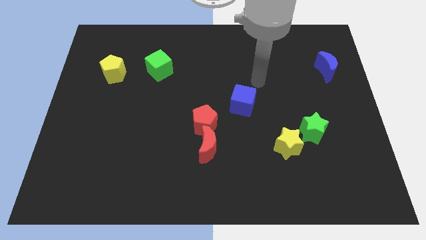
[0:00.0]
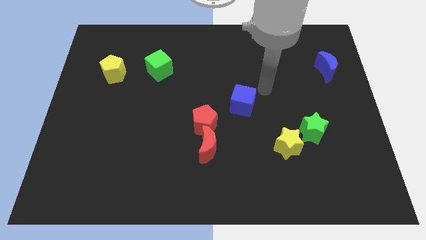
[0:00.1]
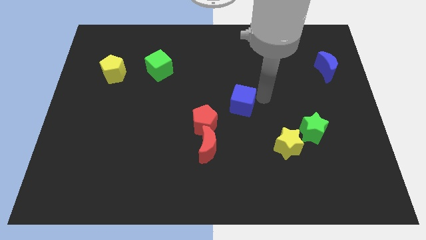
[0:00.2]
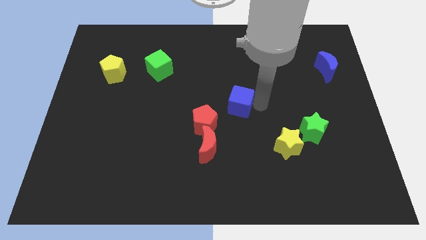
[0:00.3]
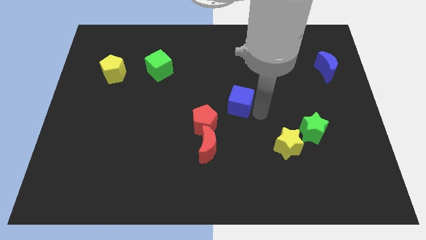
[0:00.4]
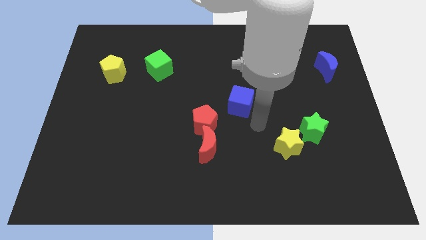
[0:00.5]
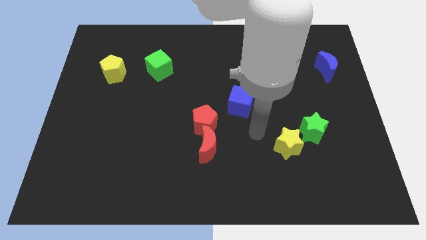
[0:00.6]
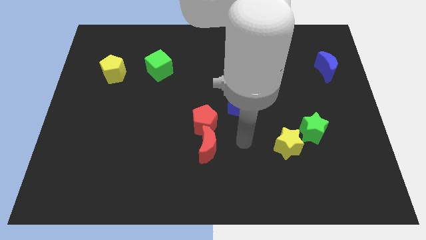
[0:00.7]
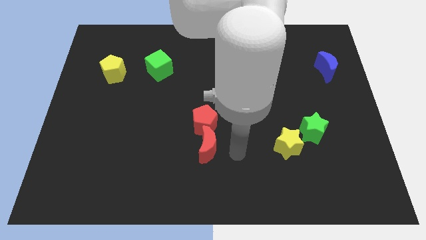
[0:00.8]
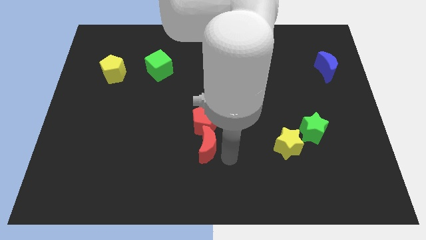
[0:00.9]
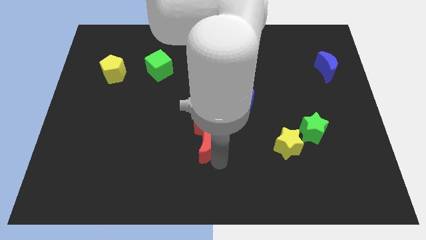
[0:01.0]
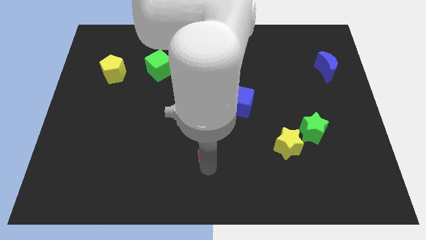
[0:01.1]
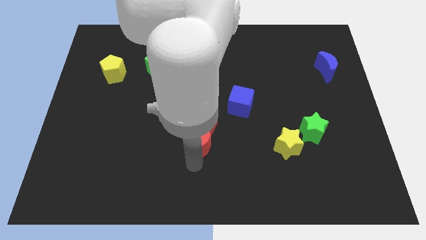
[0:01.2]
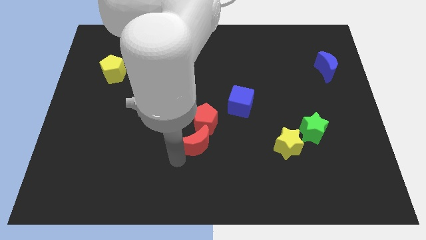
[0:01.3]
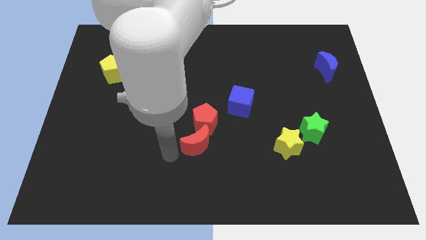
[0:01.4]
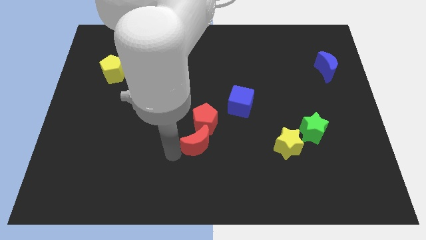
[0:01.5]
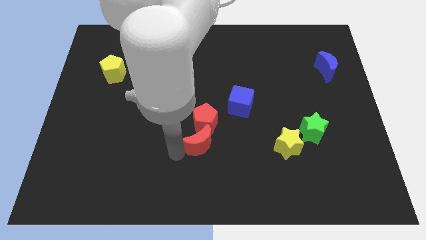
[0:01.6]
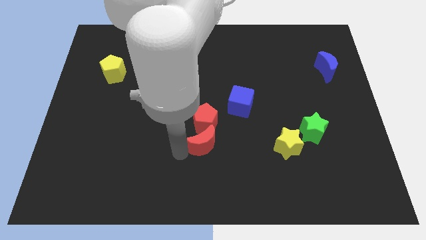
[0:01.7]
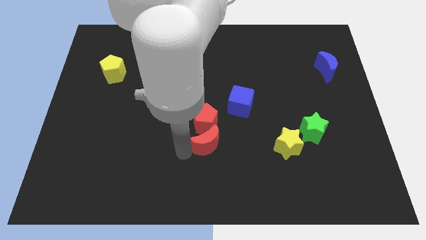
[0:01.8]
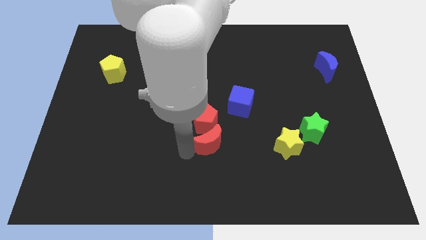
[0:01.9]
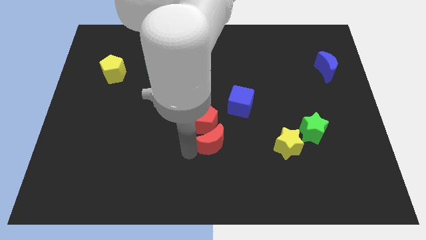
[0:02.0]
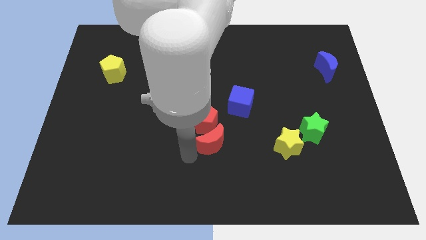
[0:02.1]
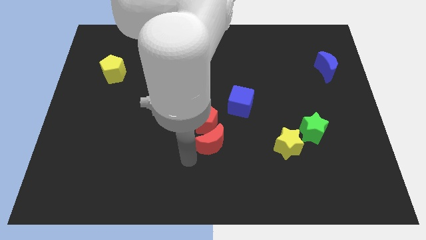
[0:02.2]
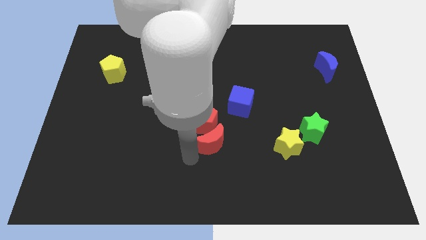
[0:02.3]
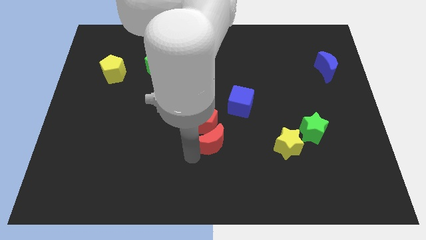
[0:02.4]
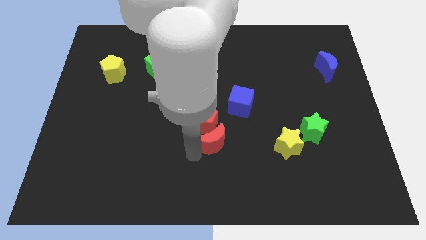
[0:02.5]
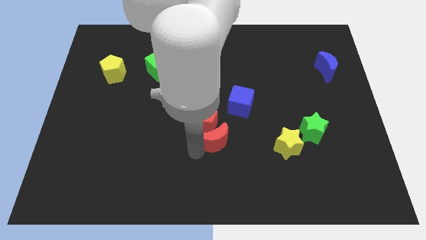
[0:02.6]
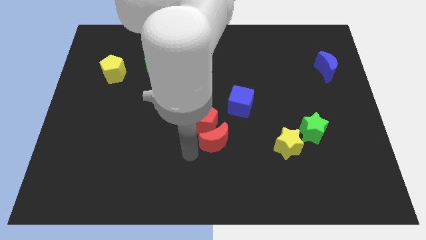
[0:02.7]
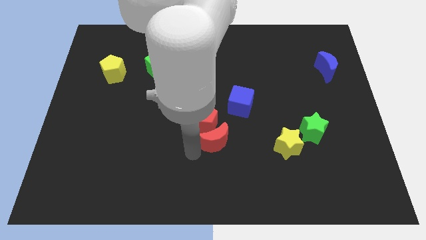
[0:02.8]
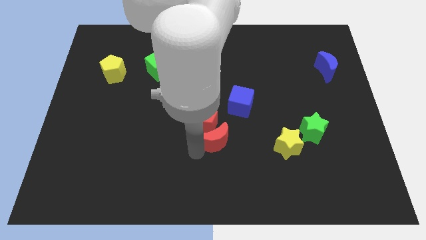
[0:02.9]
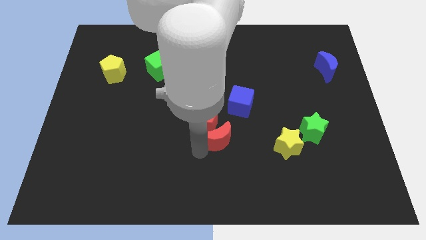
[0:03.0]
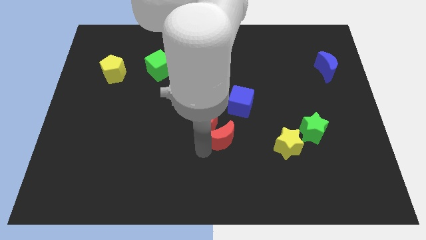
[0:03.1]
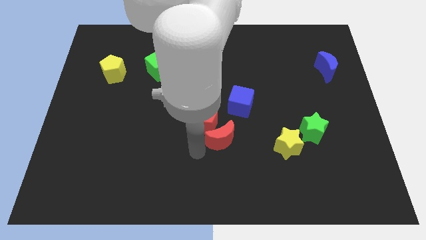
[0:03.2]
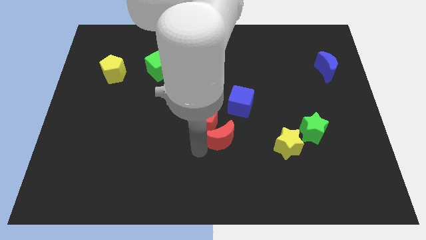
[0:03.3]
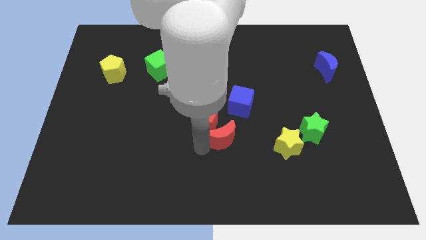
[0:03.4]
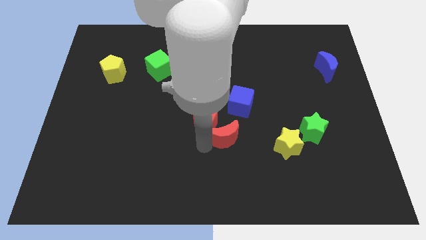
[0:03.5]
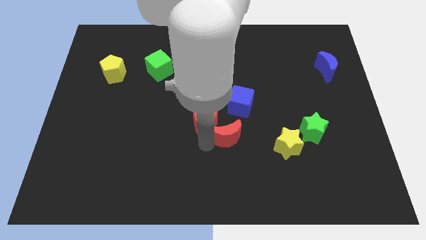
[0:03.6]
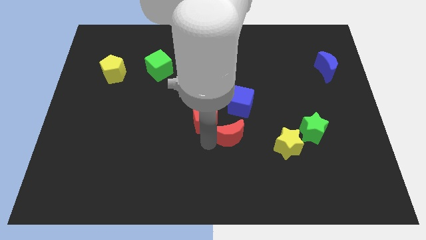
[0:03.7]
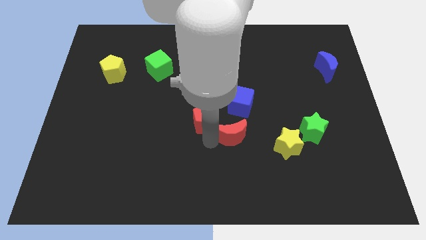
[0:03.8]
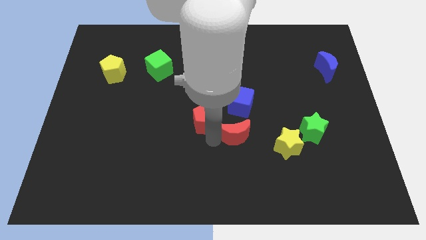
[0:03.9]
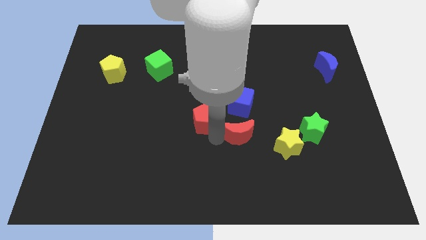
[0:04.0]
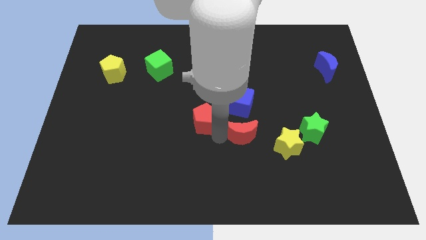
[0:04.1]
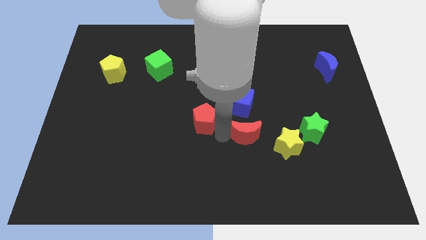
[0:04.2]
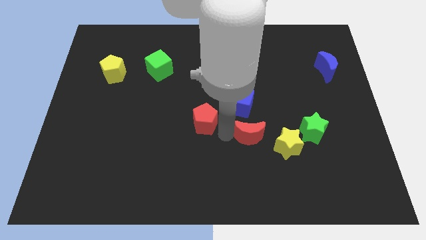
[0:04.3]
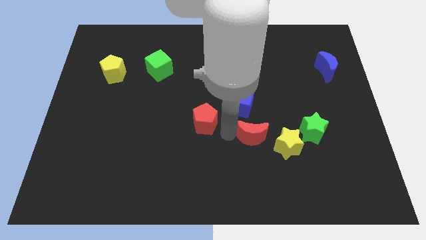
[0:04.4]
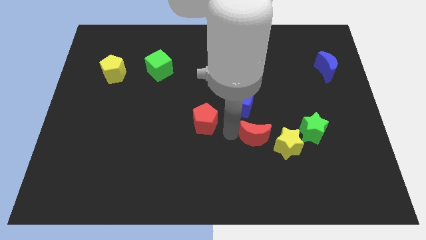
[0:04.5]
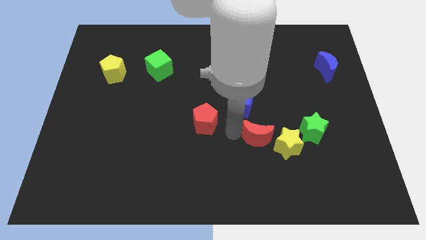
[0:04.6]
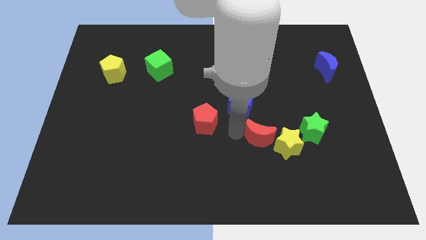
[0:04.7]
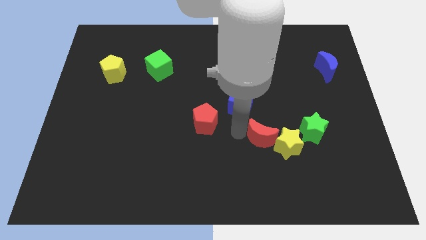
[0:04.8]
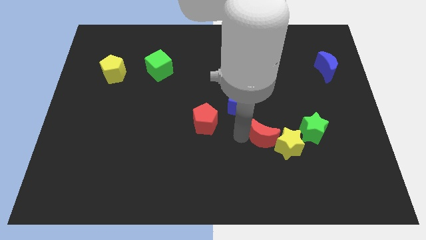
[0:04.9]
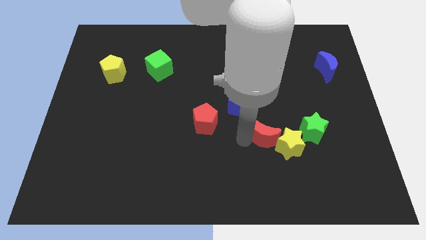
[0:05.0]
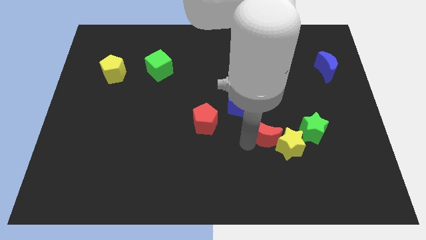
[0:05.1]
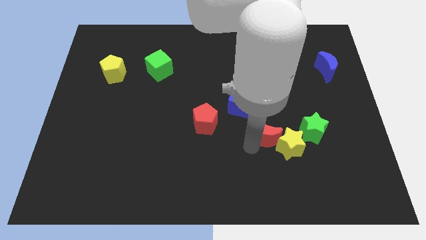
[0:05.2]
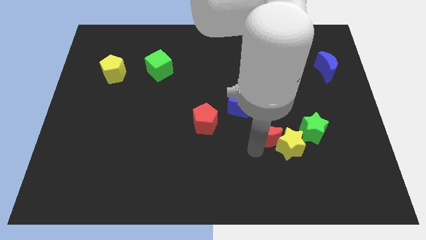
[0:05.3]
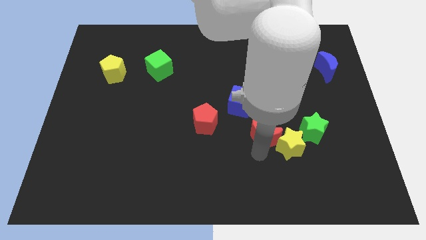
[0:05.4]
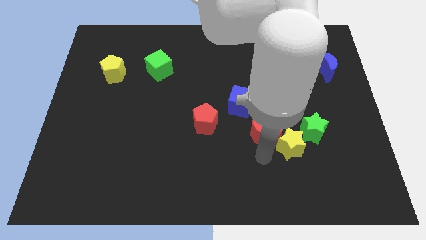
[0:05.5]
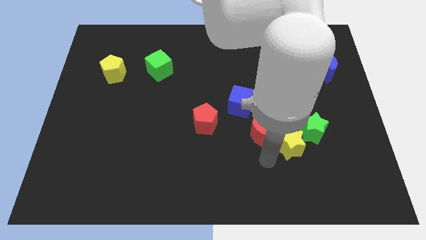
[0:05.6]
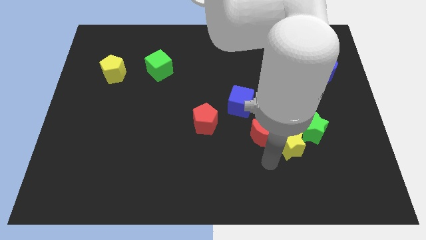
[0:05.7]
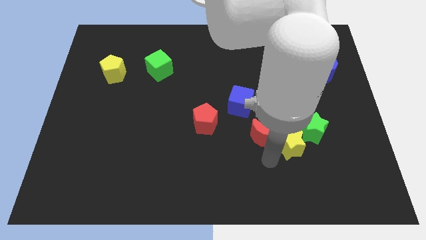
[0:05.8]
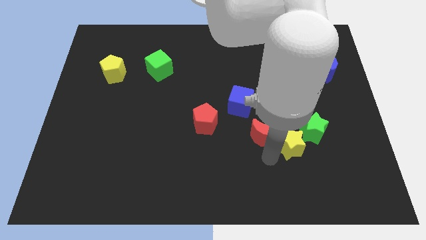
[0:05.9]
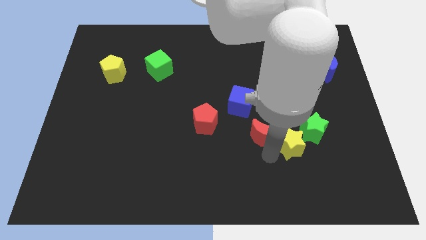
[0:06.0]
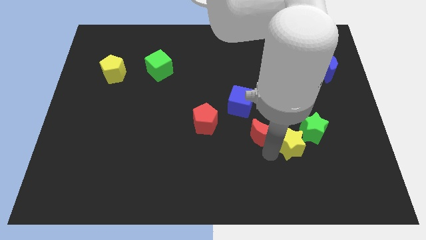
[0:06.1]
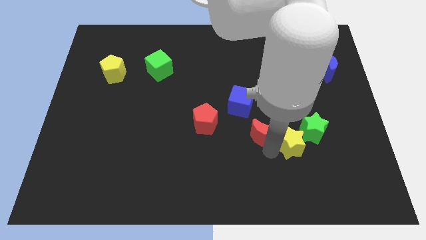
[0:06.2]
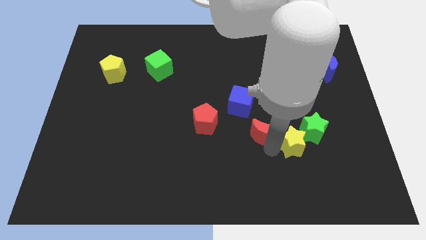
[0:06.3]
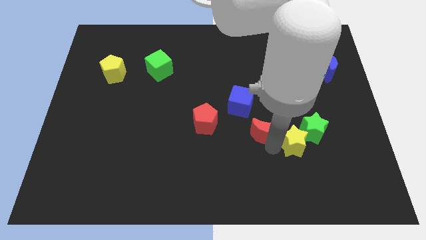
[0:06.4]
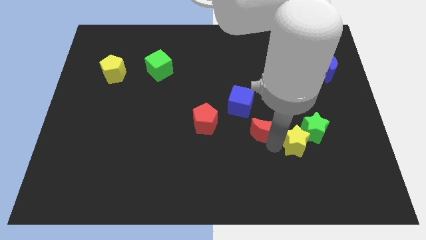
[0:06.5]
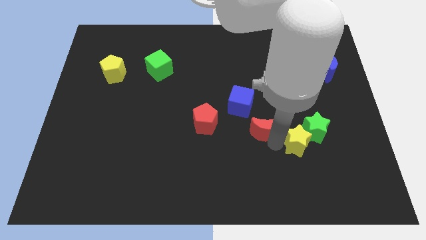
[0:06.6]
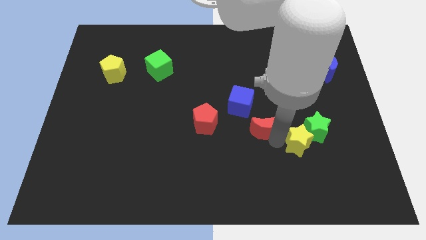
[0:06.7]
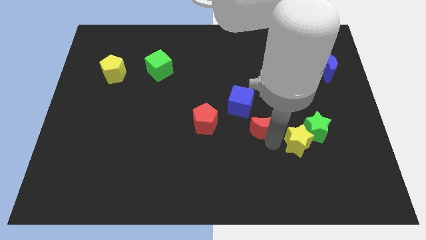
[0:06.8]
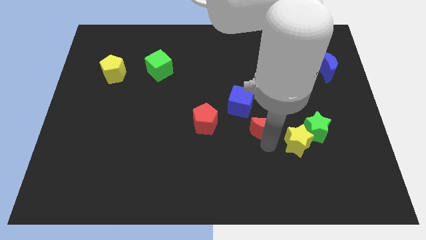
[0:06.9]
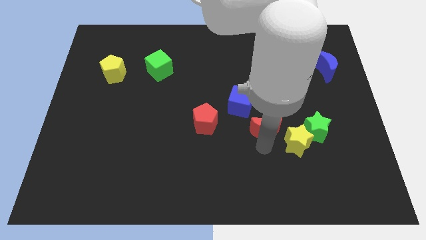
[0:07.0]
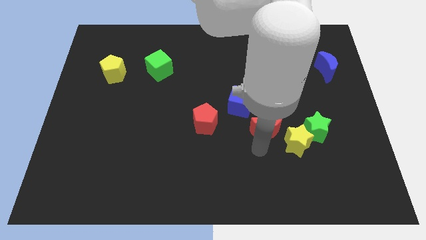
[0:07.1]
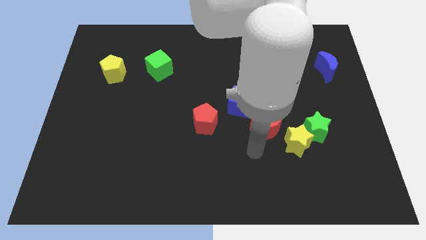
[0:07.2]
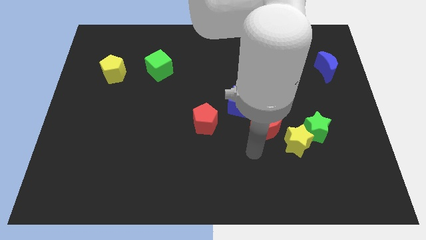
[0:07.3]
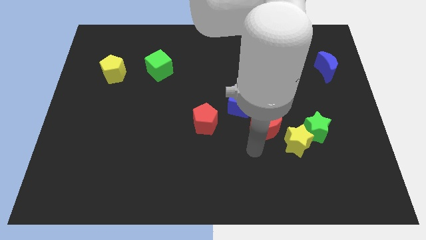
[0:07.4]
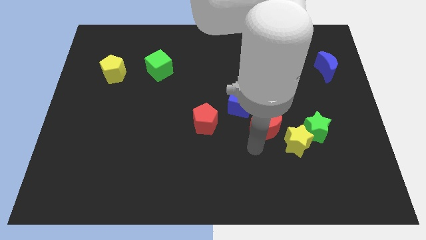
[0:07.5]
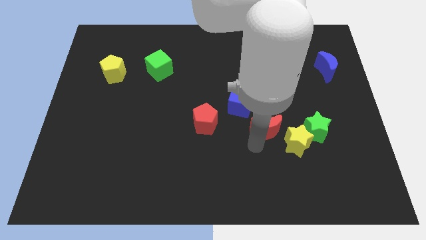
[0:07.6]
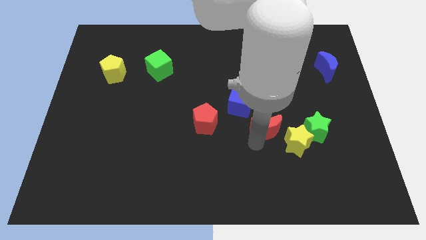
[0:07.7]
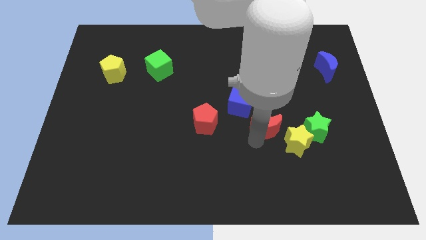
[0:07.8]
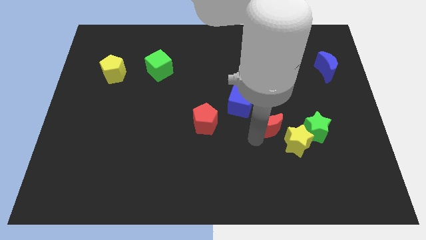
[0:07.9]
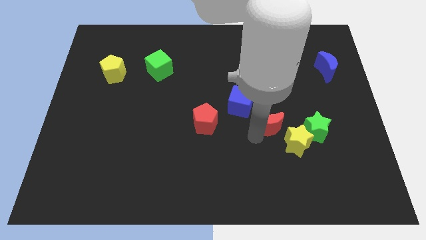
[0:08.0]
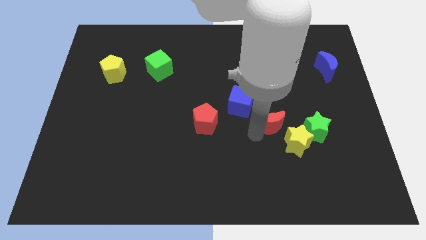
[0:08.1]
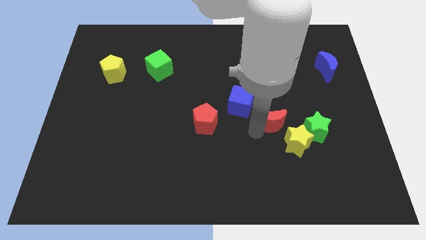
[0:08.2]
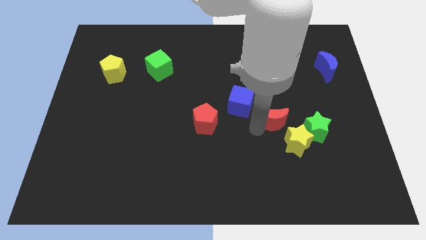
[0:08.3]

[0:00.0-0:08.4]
push the red moon to the right side of the blue cube
